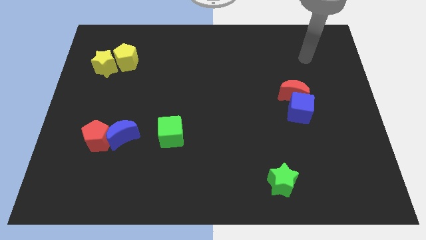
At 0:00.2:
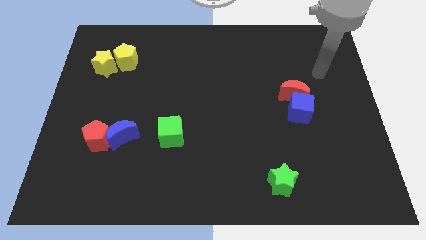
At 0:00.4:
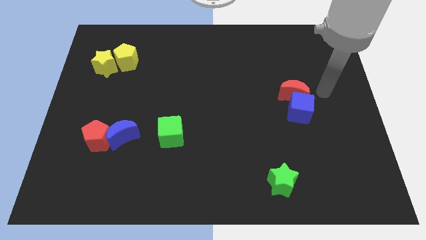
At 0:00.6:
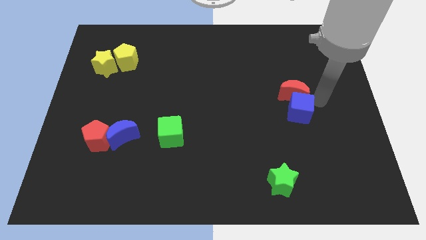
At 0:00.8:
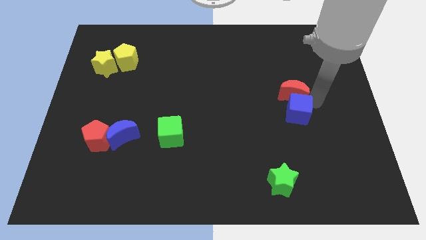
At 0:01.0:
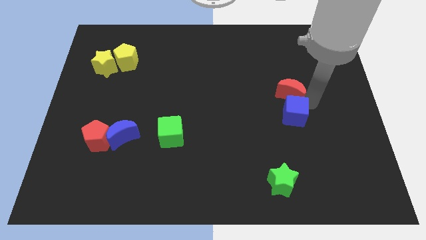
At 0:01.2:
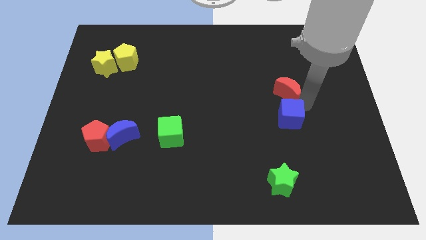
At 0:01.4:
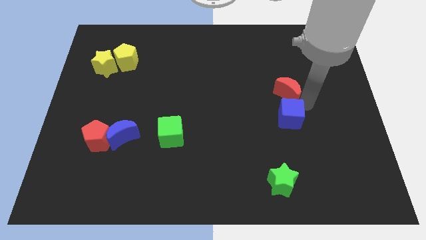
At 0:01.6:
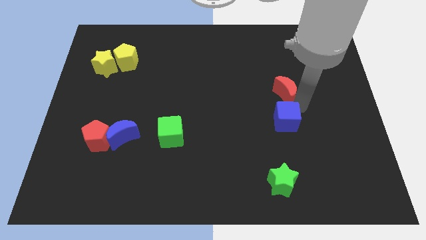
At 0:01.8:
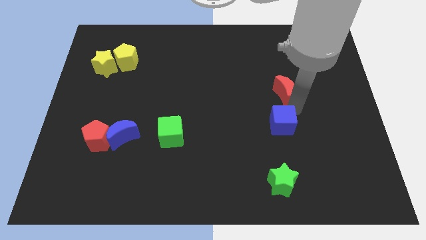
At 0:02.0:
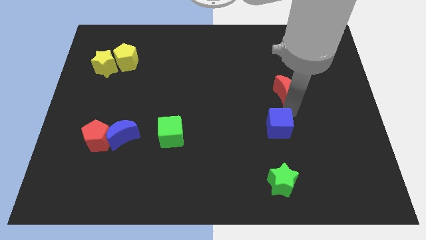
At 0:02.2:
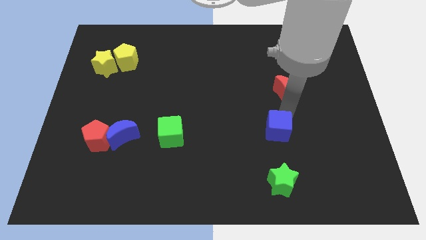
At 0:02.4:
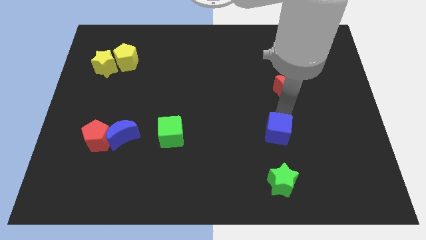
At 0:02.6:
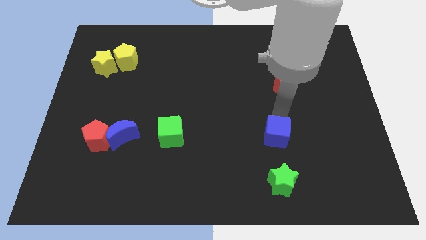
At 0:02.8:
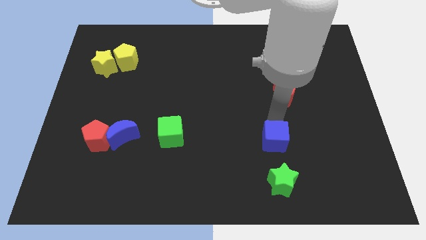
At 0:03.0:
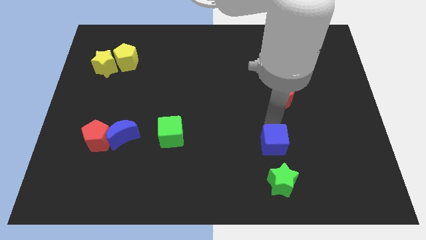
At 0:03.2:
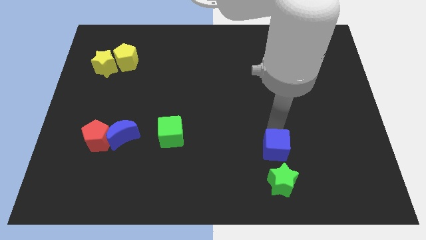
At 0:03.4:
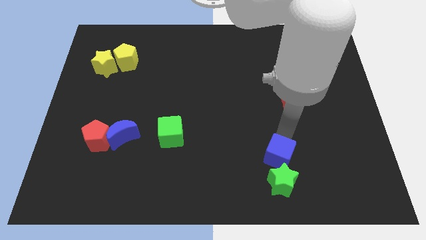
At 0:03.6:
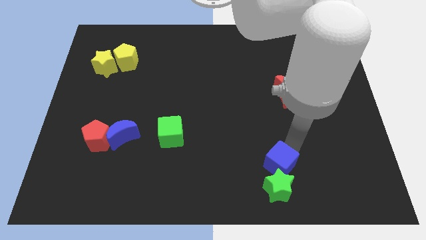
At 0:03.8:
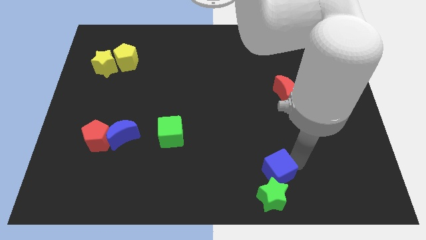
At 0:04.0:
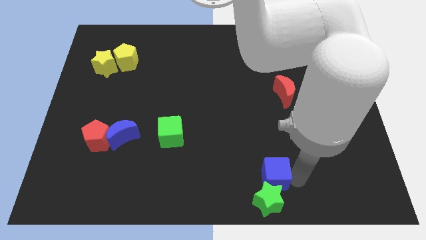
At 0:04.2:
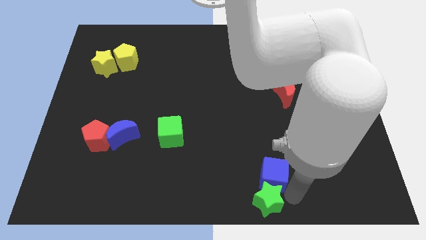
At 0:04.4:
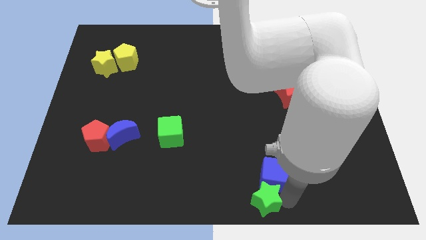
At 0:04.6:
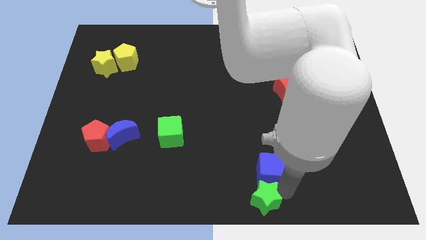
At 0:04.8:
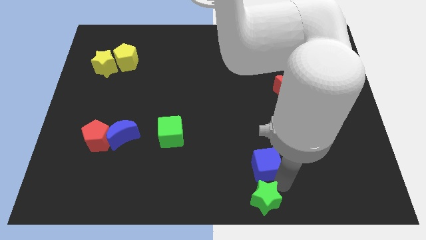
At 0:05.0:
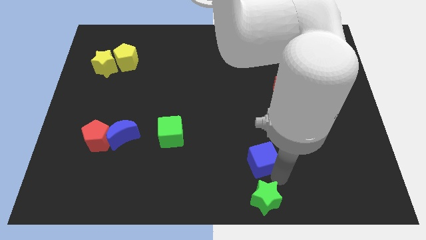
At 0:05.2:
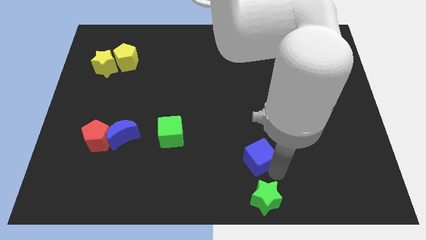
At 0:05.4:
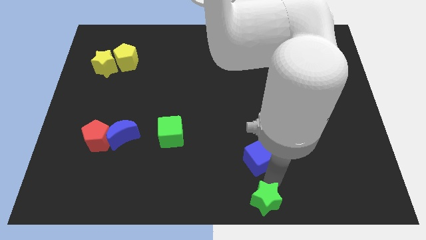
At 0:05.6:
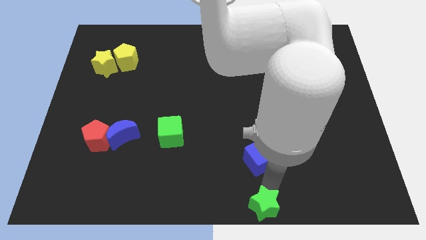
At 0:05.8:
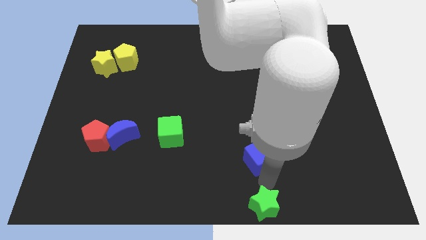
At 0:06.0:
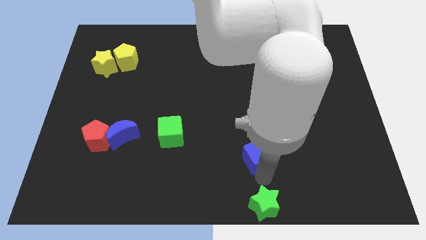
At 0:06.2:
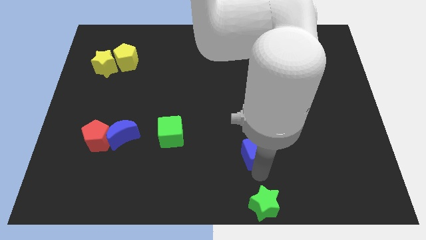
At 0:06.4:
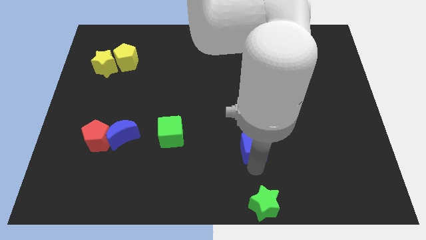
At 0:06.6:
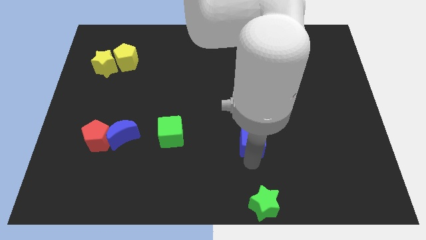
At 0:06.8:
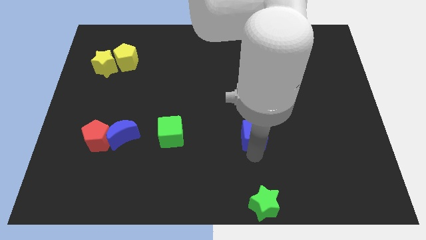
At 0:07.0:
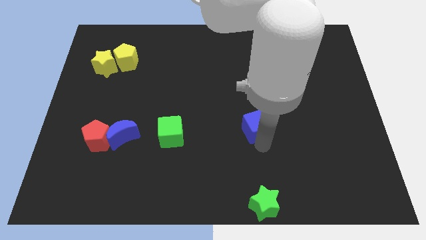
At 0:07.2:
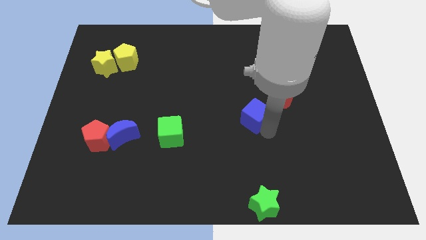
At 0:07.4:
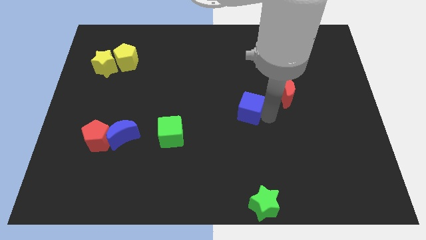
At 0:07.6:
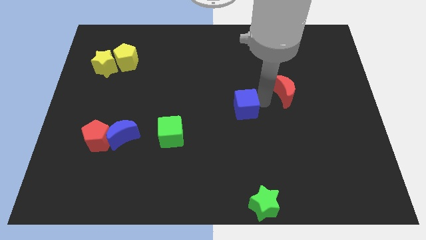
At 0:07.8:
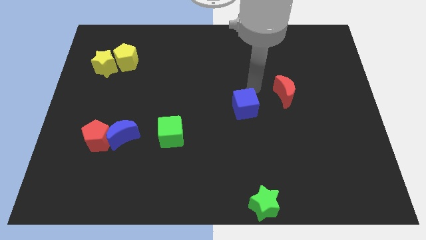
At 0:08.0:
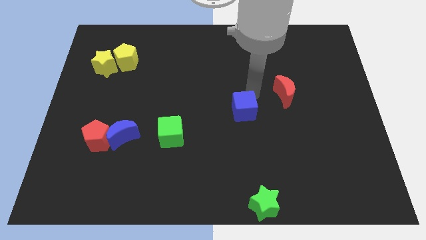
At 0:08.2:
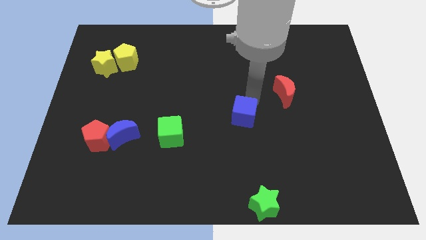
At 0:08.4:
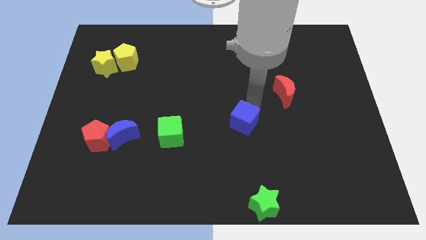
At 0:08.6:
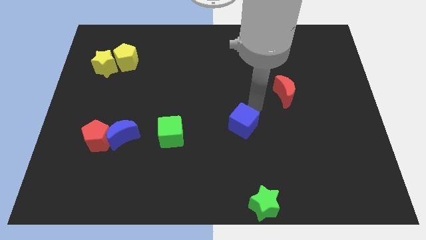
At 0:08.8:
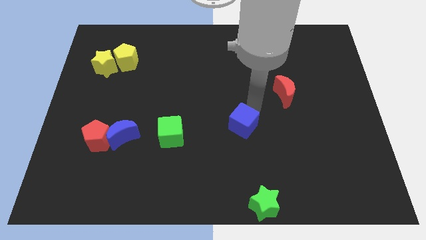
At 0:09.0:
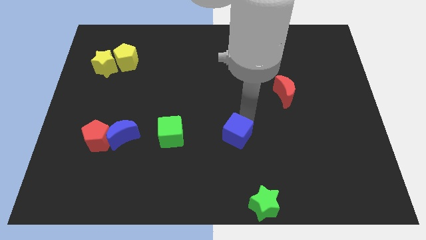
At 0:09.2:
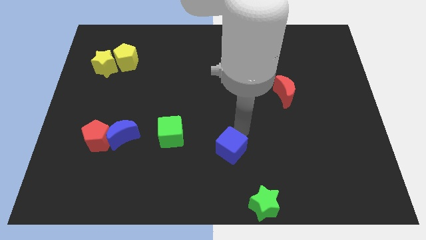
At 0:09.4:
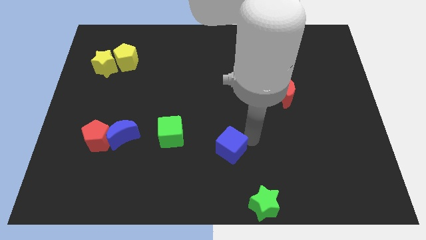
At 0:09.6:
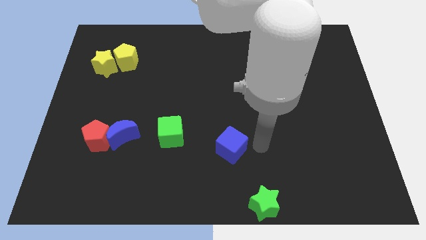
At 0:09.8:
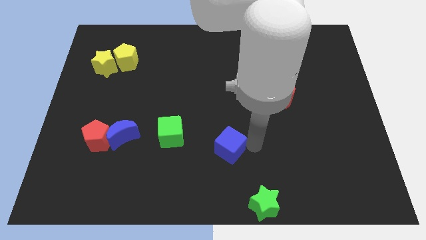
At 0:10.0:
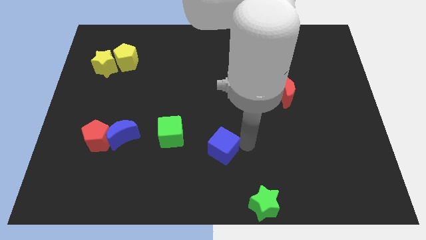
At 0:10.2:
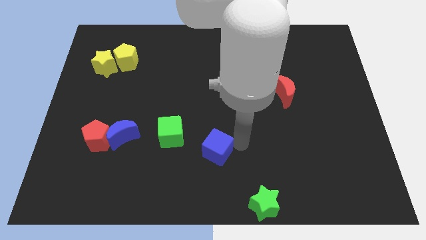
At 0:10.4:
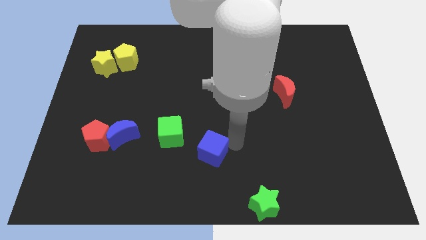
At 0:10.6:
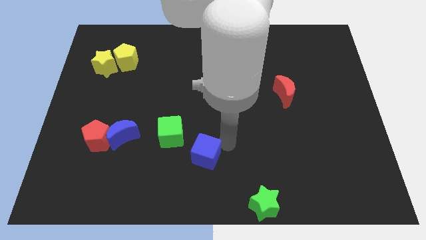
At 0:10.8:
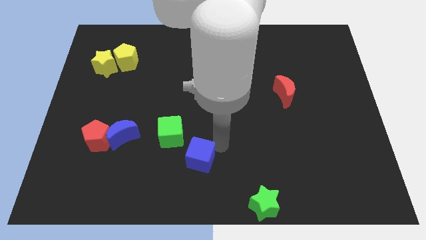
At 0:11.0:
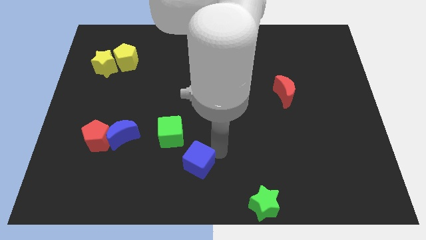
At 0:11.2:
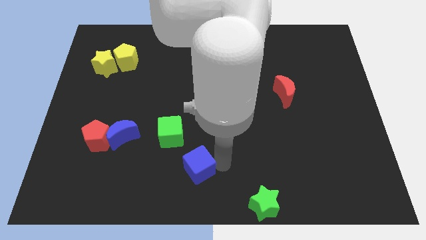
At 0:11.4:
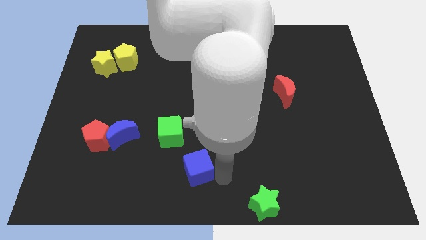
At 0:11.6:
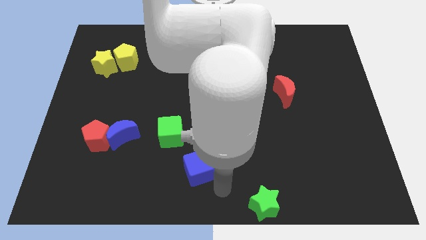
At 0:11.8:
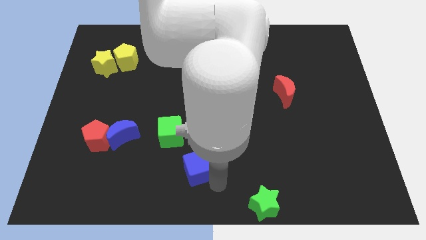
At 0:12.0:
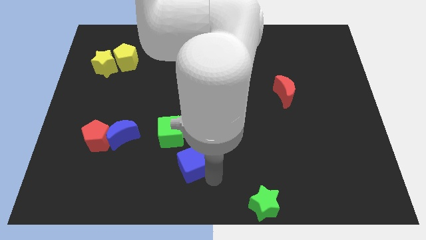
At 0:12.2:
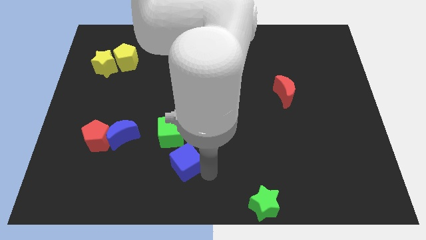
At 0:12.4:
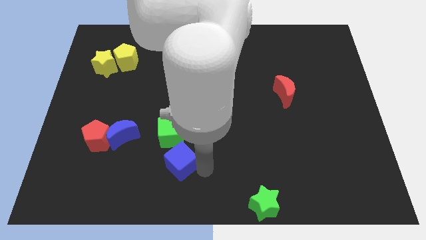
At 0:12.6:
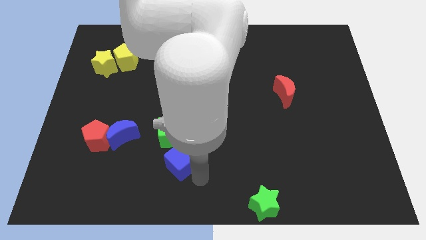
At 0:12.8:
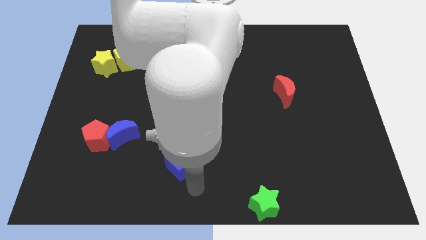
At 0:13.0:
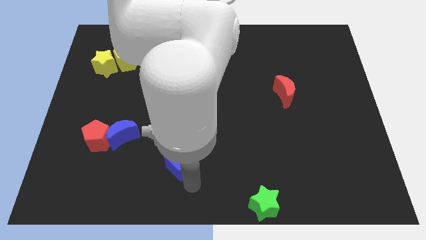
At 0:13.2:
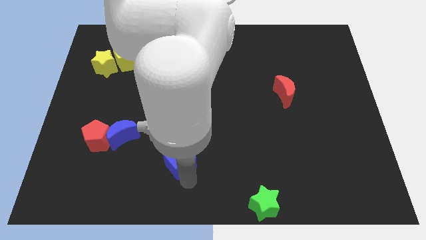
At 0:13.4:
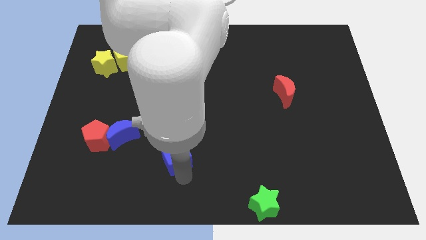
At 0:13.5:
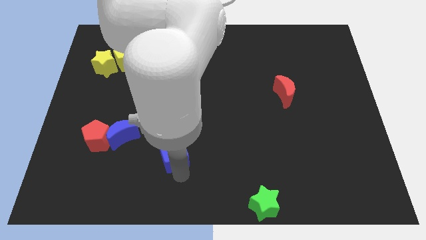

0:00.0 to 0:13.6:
move the blue cube to the bottom left side of the green cube
